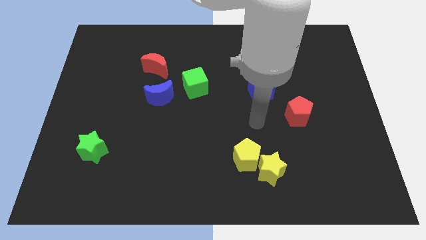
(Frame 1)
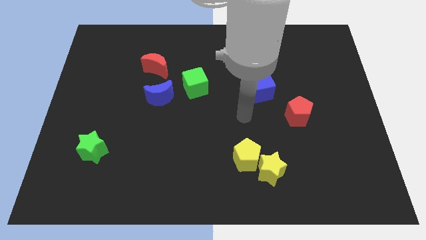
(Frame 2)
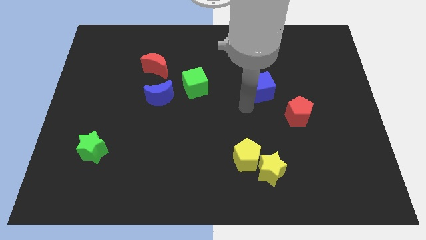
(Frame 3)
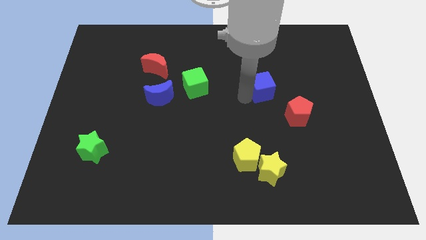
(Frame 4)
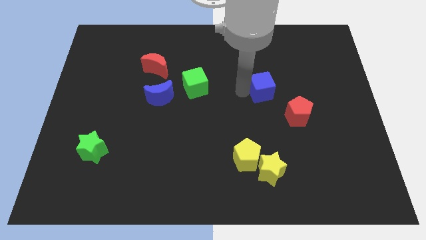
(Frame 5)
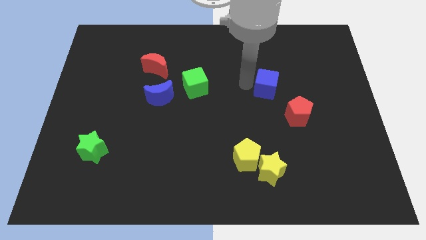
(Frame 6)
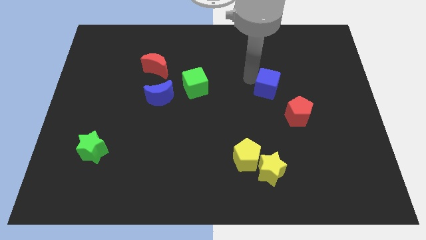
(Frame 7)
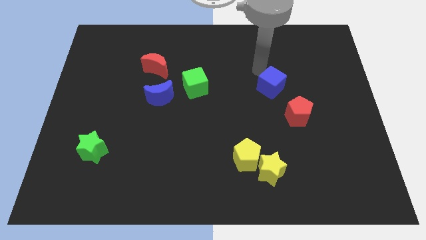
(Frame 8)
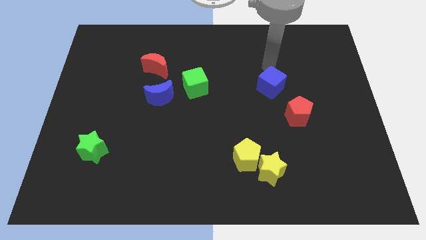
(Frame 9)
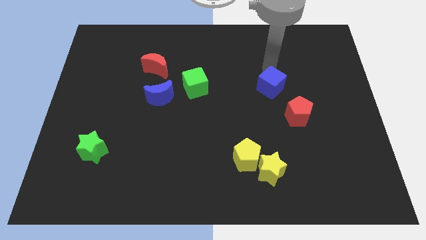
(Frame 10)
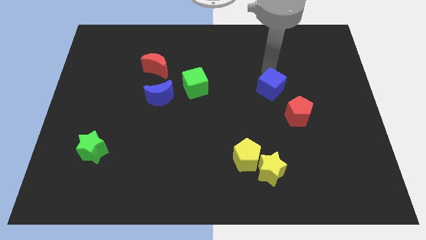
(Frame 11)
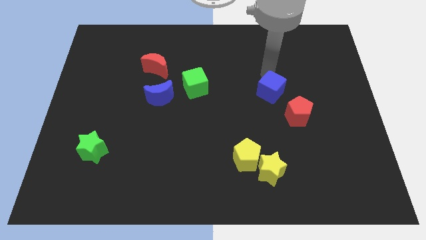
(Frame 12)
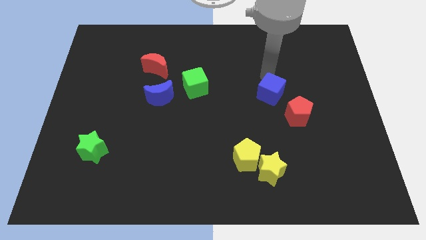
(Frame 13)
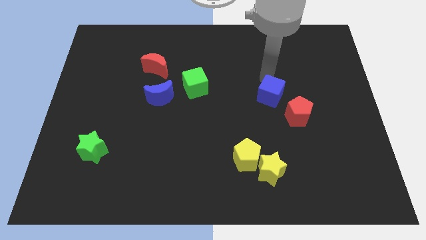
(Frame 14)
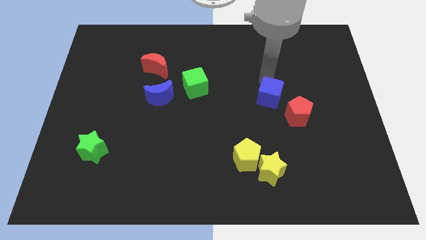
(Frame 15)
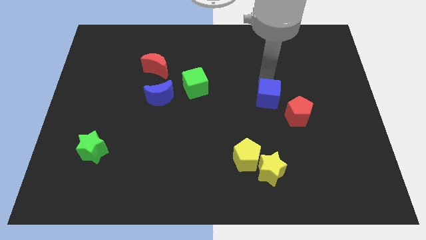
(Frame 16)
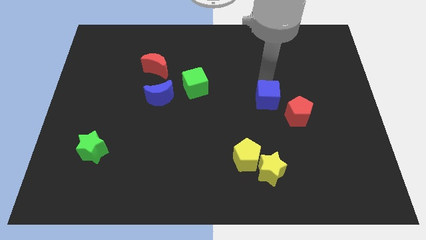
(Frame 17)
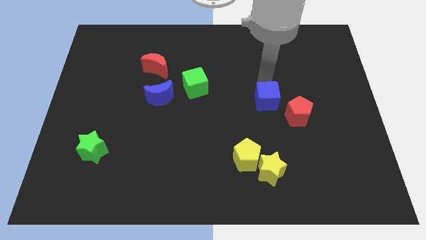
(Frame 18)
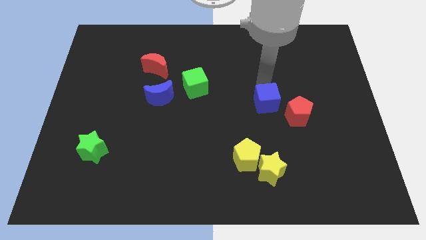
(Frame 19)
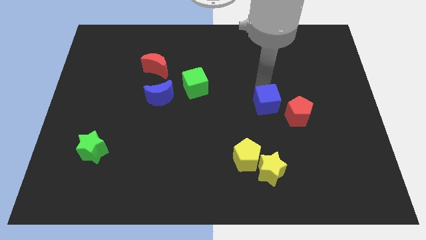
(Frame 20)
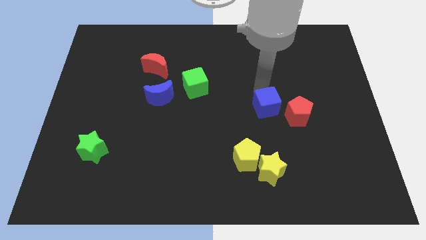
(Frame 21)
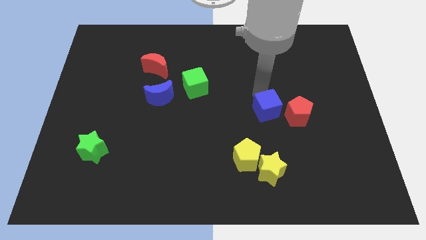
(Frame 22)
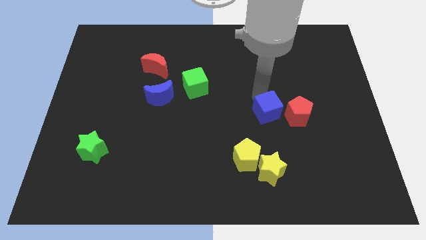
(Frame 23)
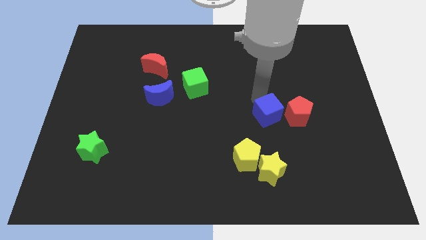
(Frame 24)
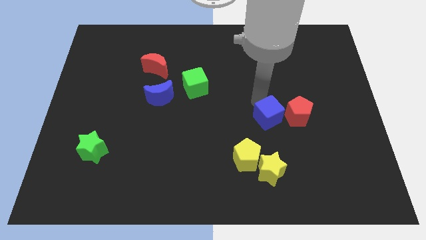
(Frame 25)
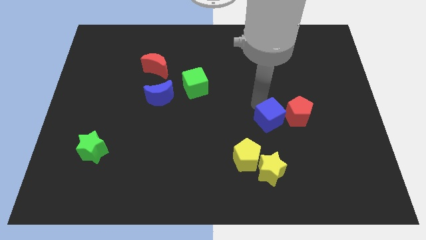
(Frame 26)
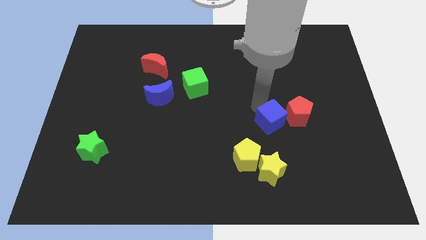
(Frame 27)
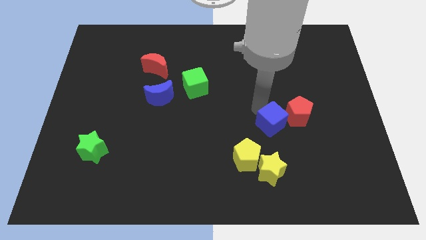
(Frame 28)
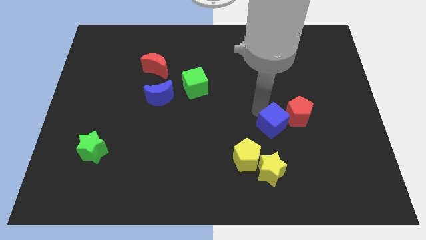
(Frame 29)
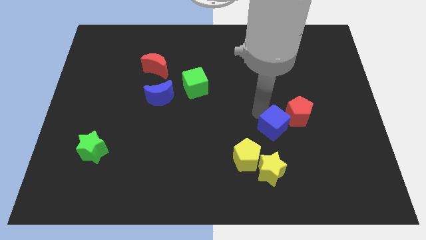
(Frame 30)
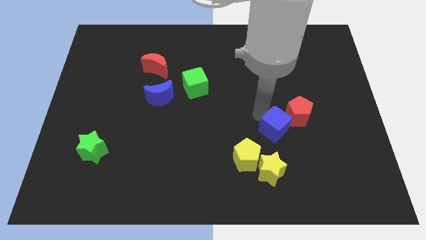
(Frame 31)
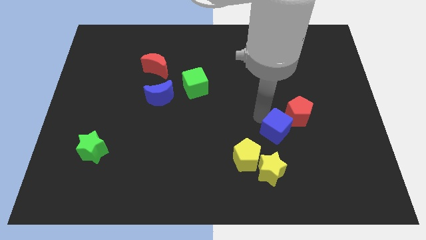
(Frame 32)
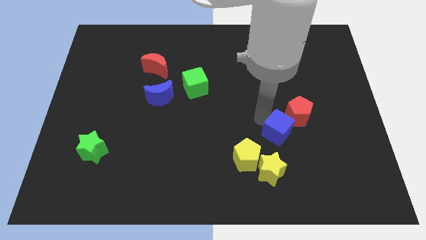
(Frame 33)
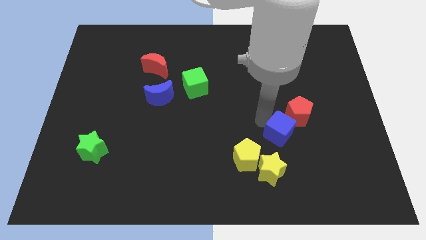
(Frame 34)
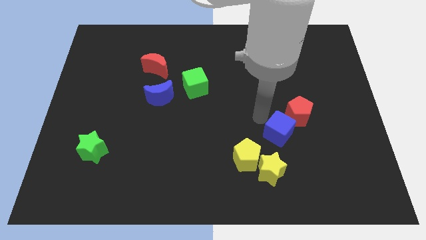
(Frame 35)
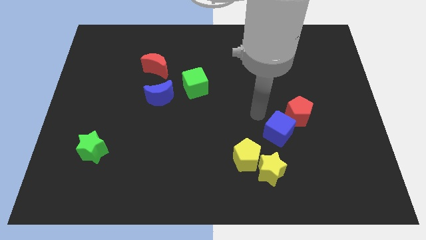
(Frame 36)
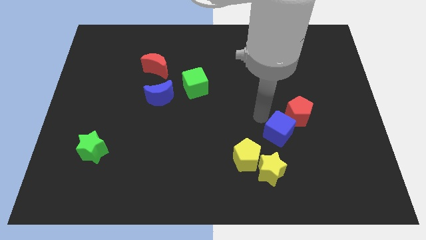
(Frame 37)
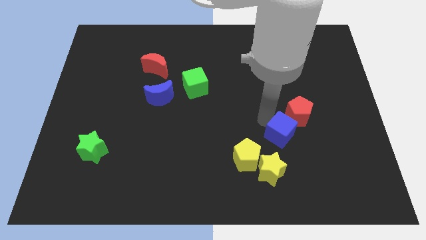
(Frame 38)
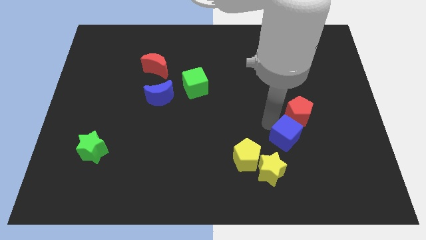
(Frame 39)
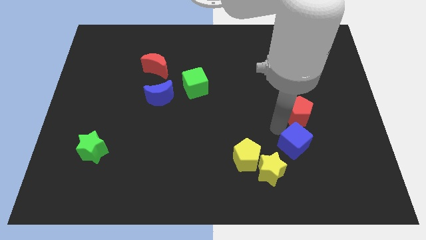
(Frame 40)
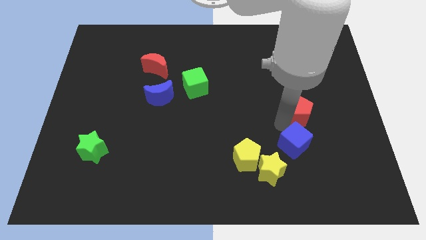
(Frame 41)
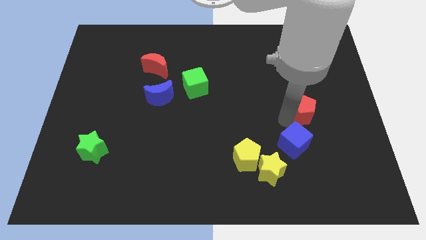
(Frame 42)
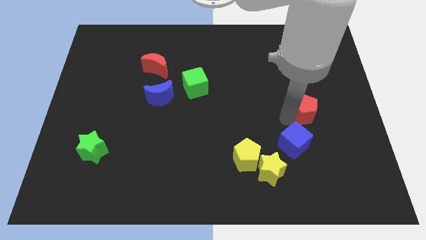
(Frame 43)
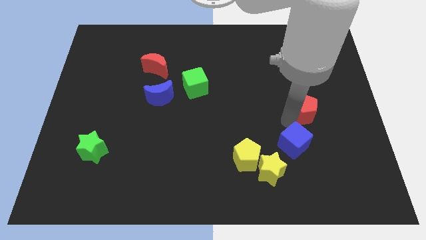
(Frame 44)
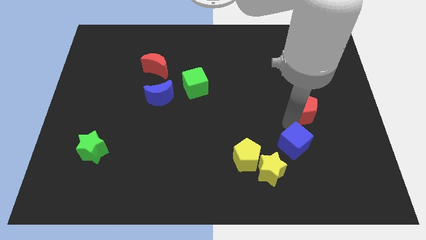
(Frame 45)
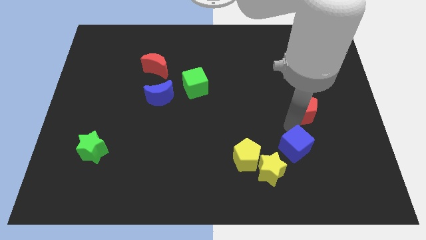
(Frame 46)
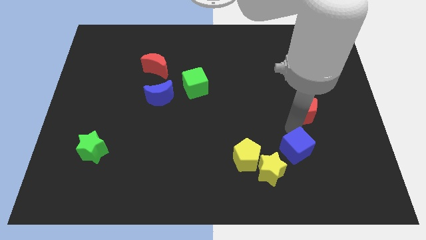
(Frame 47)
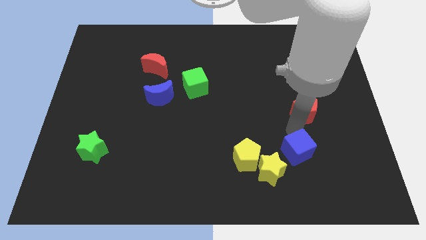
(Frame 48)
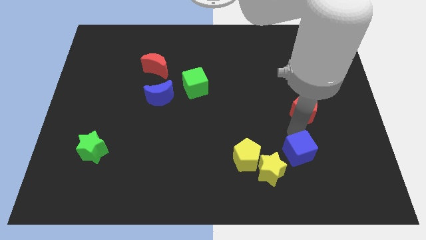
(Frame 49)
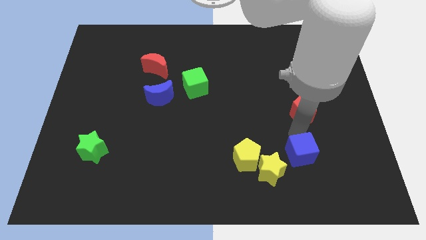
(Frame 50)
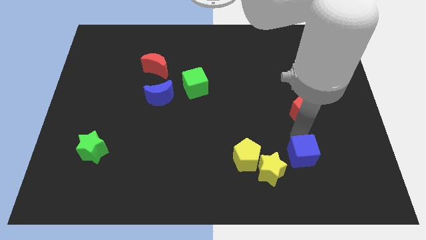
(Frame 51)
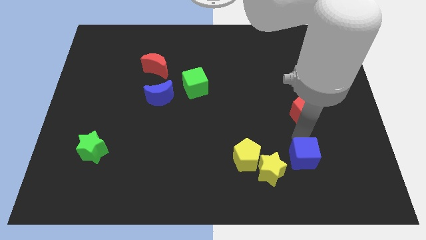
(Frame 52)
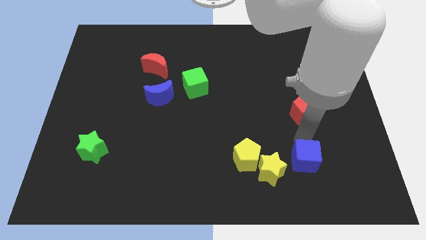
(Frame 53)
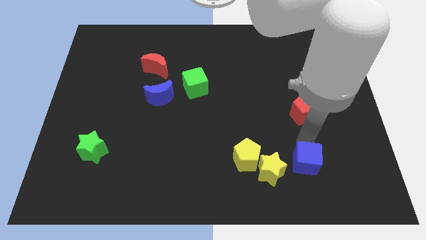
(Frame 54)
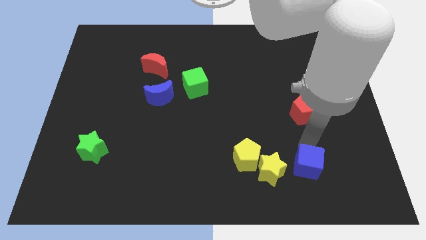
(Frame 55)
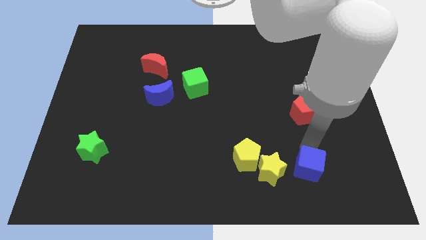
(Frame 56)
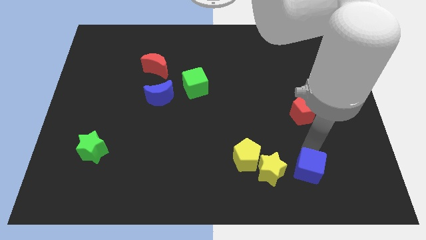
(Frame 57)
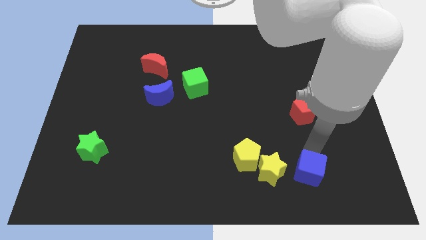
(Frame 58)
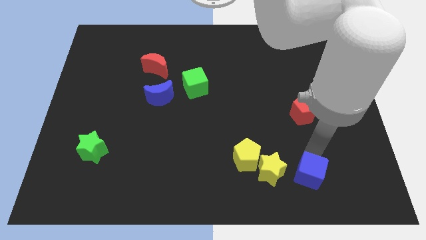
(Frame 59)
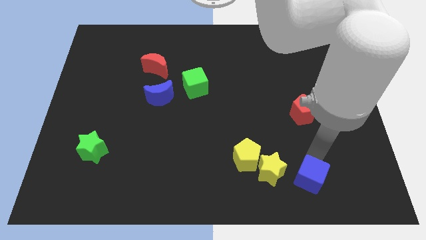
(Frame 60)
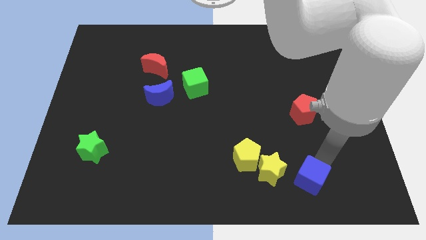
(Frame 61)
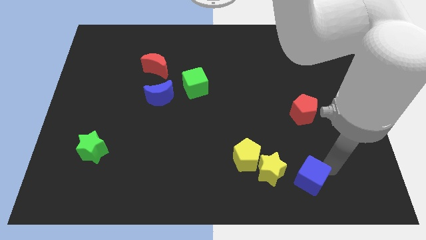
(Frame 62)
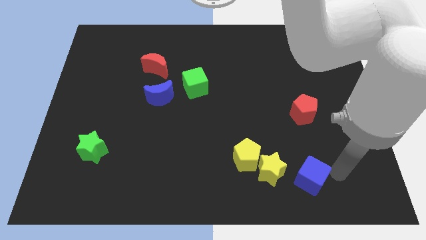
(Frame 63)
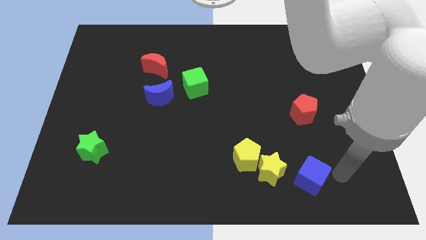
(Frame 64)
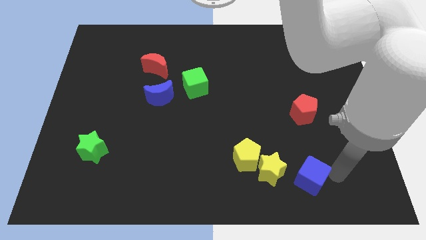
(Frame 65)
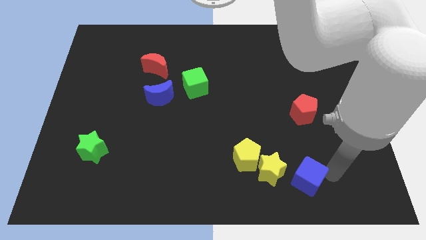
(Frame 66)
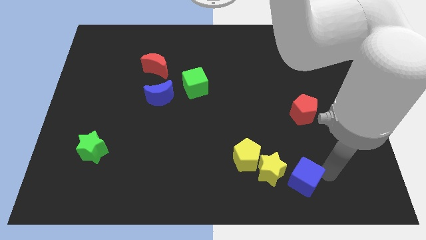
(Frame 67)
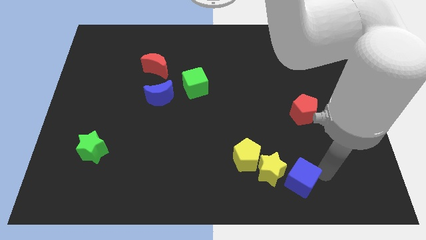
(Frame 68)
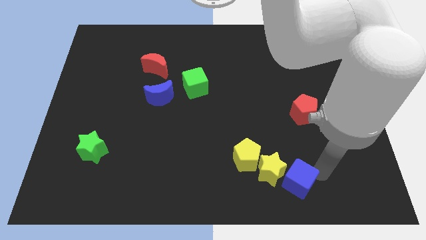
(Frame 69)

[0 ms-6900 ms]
put the blue cube to the bottom right of the yellow pentagon

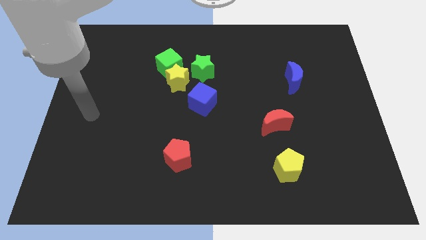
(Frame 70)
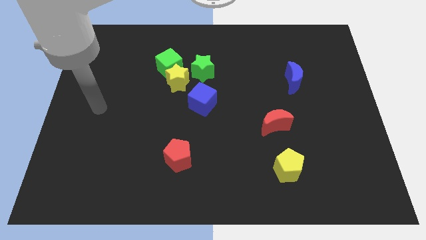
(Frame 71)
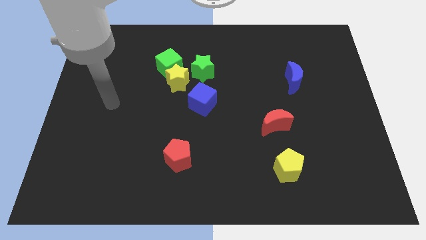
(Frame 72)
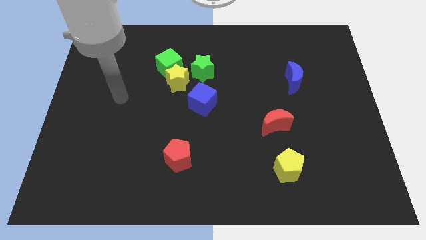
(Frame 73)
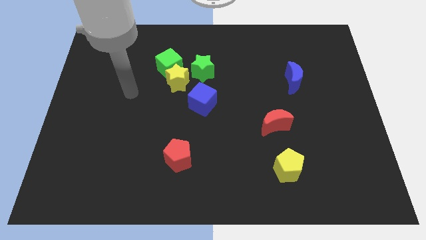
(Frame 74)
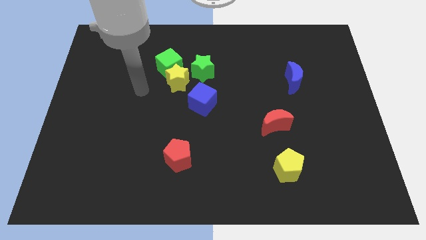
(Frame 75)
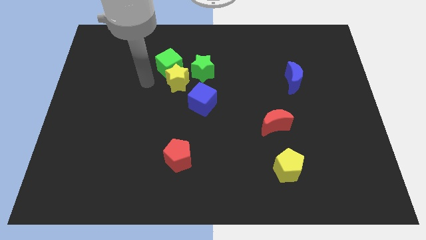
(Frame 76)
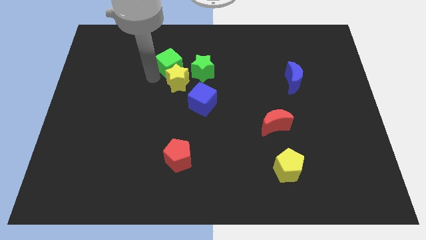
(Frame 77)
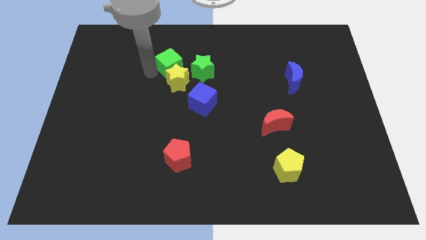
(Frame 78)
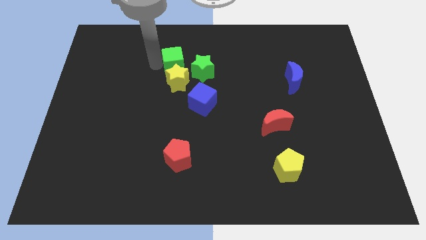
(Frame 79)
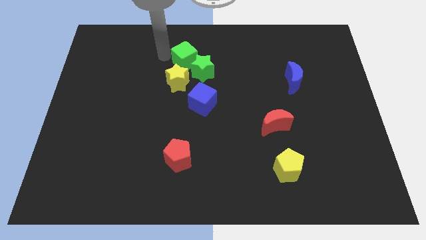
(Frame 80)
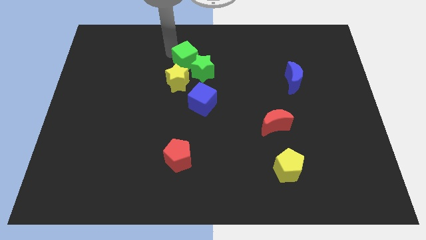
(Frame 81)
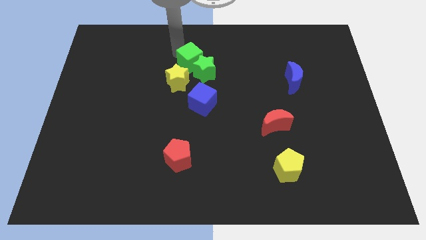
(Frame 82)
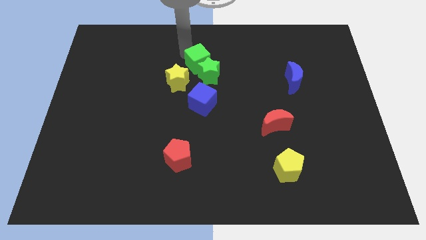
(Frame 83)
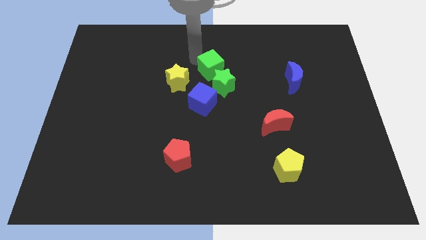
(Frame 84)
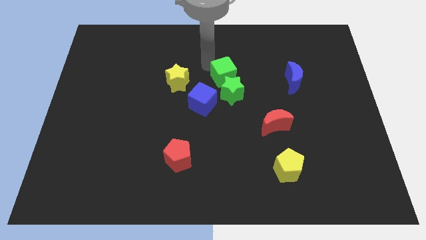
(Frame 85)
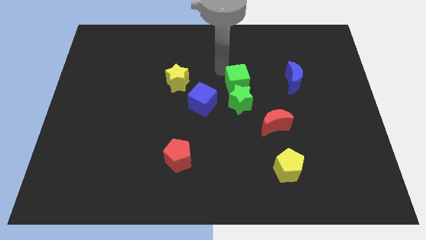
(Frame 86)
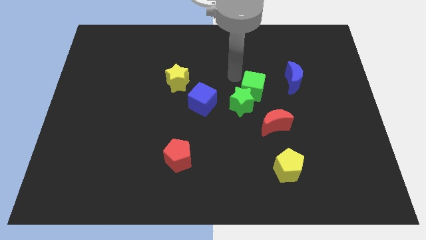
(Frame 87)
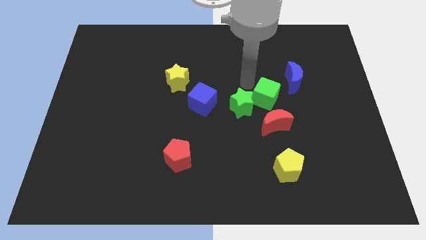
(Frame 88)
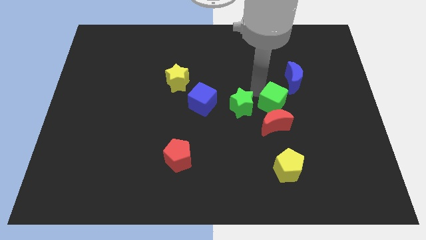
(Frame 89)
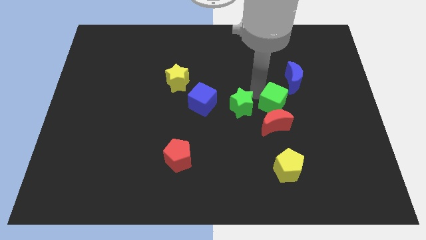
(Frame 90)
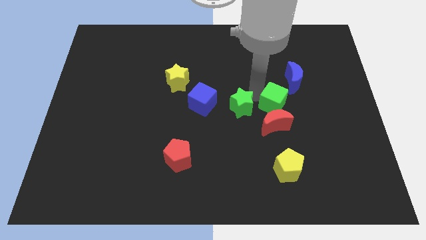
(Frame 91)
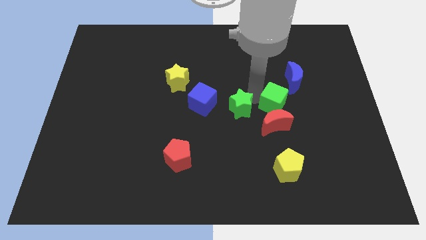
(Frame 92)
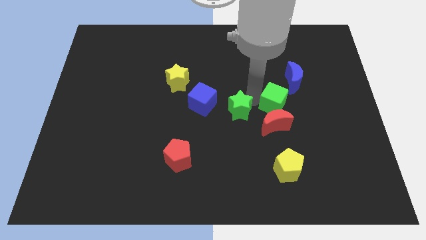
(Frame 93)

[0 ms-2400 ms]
move the green star diagonally down and to the right of the blue cube
